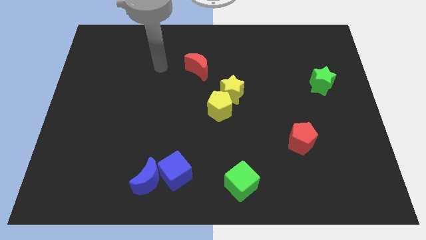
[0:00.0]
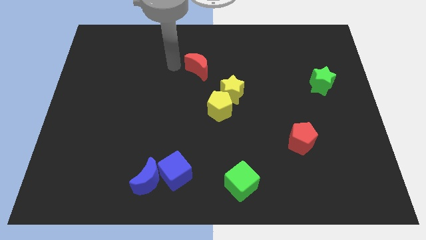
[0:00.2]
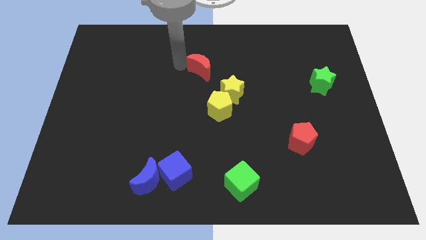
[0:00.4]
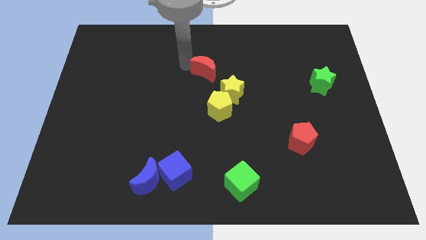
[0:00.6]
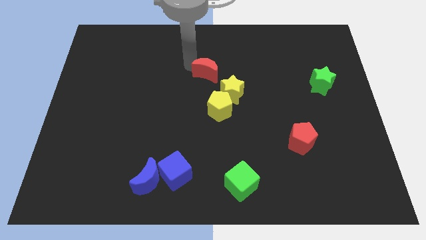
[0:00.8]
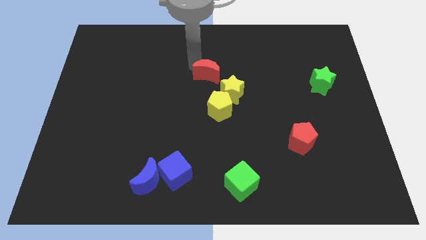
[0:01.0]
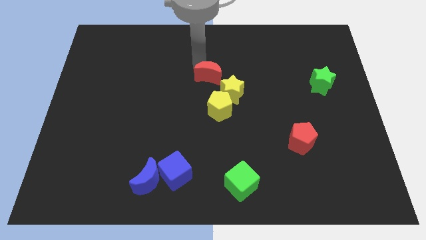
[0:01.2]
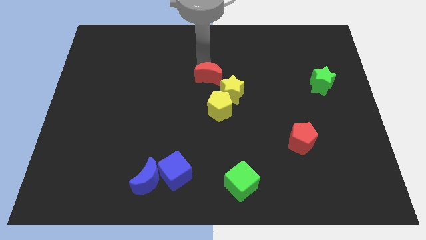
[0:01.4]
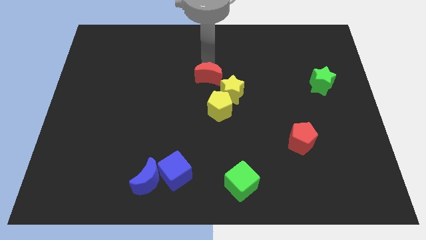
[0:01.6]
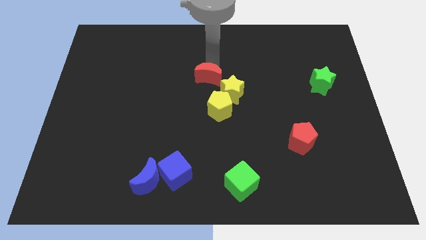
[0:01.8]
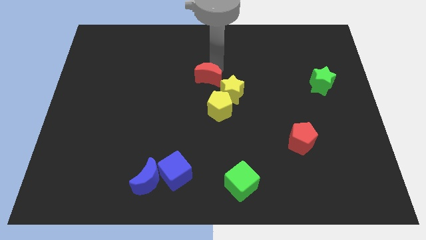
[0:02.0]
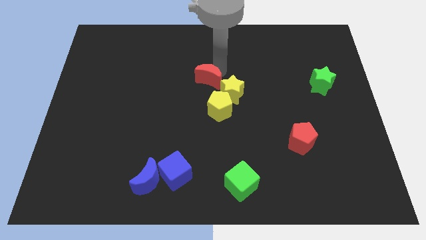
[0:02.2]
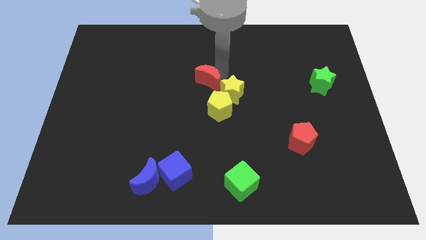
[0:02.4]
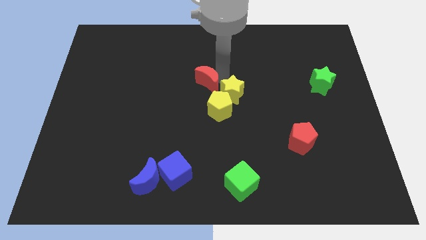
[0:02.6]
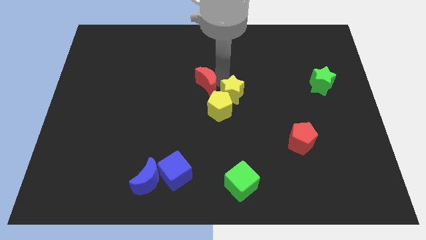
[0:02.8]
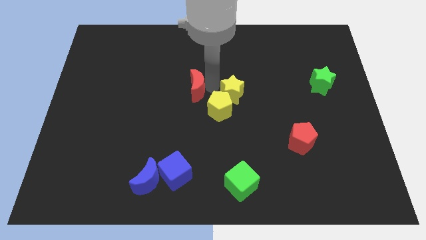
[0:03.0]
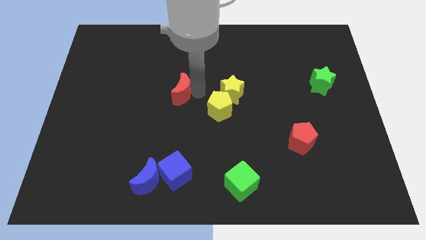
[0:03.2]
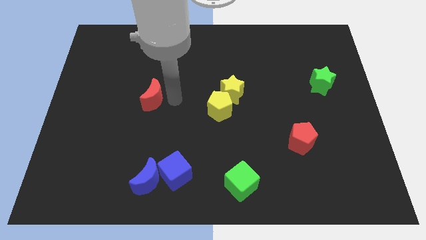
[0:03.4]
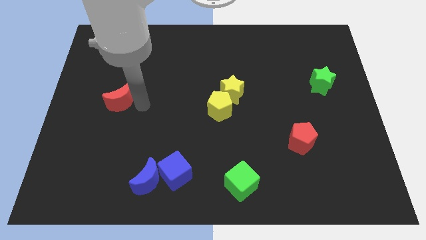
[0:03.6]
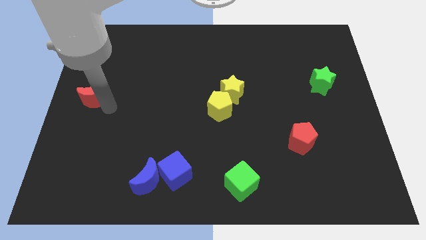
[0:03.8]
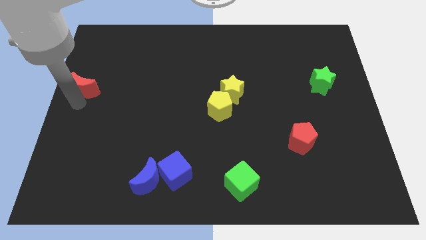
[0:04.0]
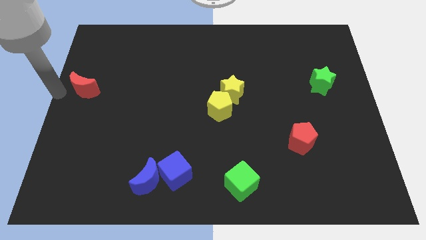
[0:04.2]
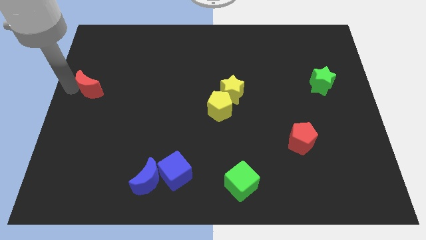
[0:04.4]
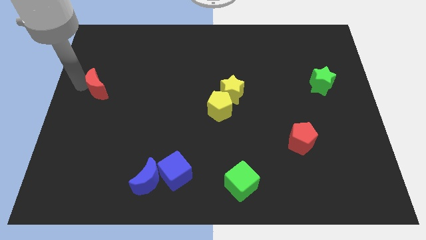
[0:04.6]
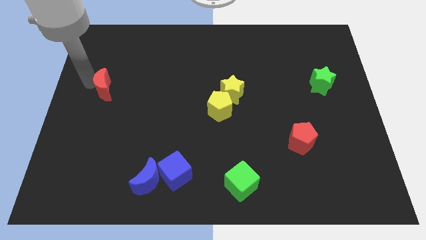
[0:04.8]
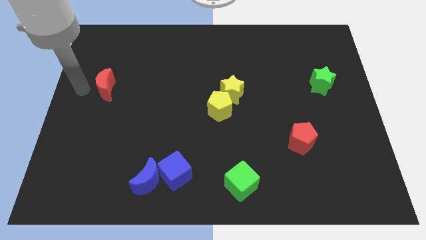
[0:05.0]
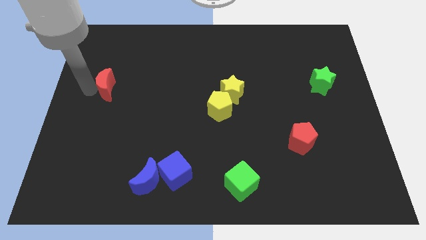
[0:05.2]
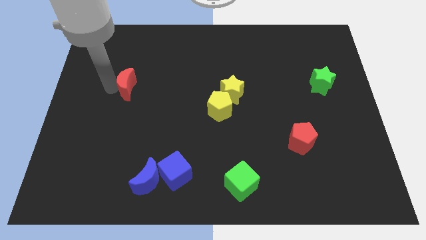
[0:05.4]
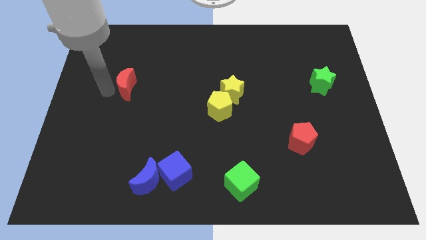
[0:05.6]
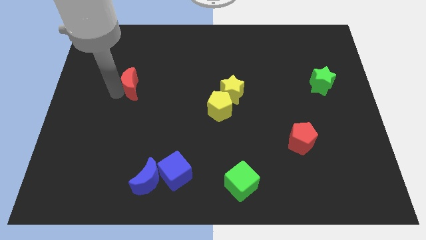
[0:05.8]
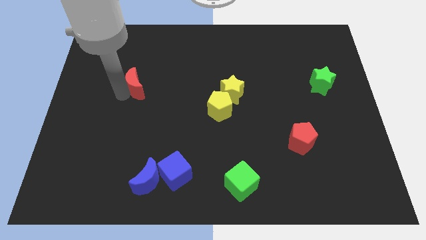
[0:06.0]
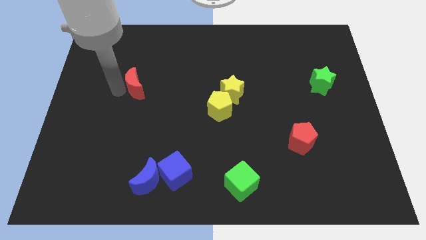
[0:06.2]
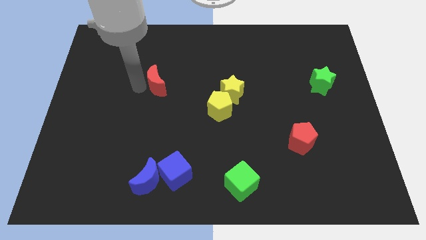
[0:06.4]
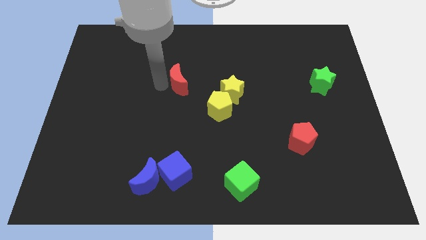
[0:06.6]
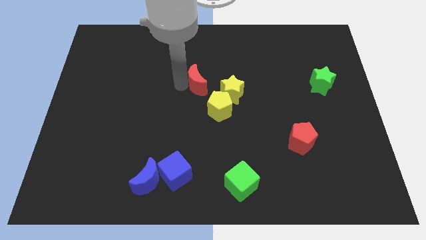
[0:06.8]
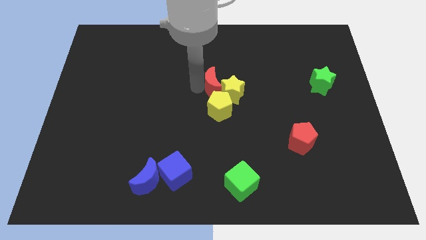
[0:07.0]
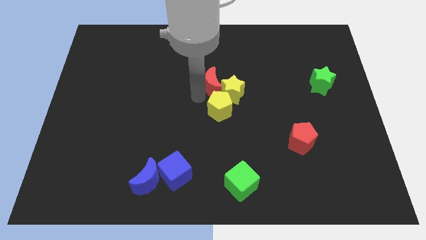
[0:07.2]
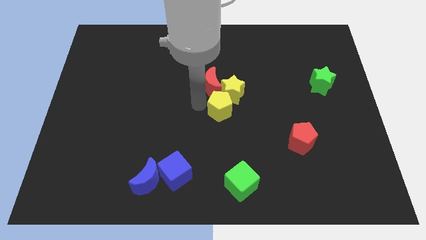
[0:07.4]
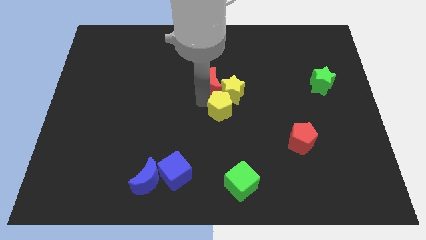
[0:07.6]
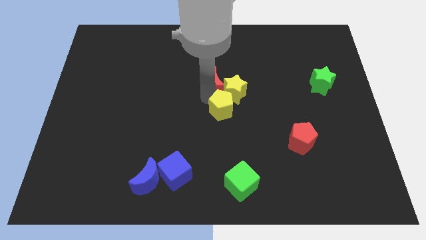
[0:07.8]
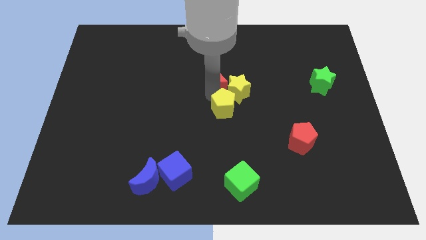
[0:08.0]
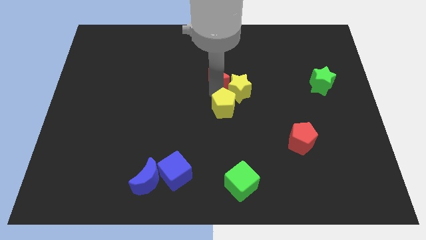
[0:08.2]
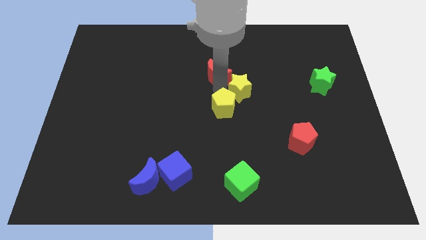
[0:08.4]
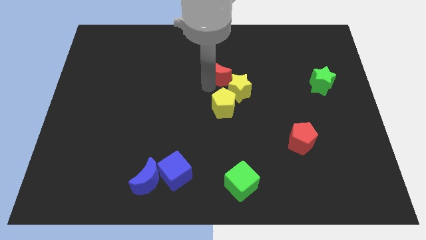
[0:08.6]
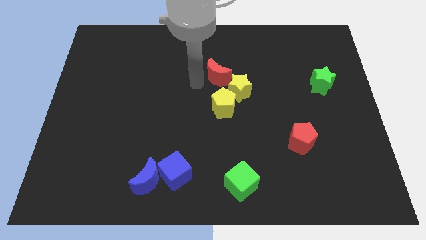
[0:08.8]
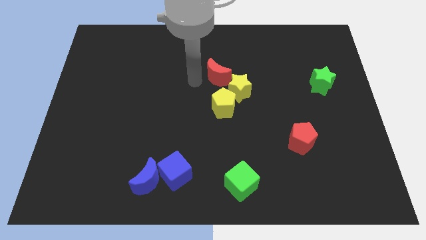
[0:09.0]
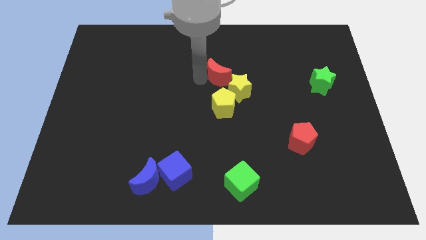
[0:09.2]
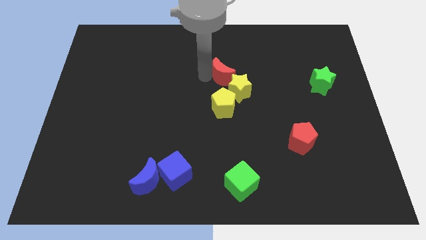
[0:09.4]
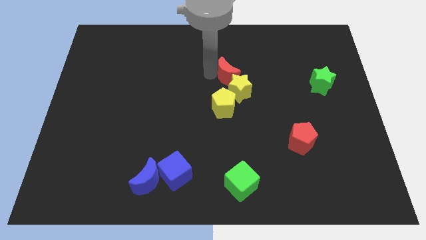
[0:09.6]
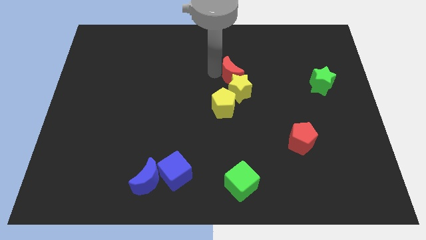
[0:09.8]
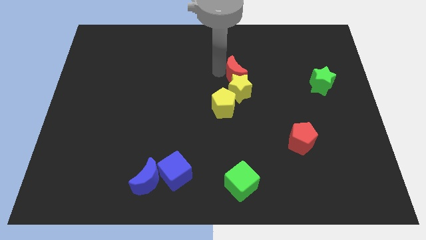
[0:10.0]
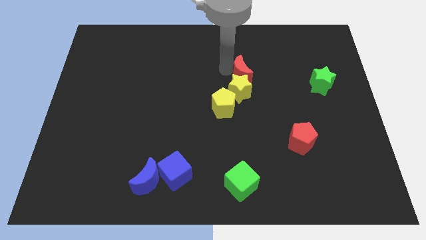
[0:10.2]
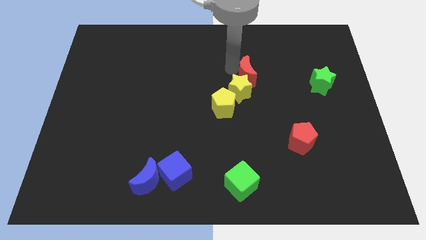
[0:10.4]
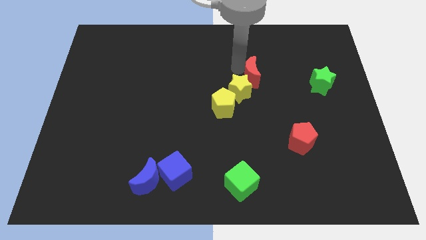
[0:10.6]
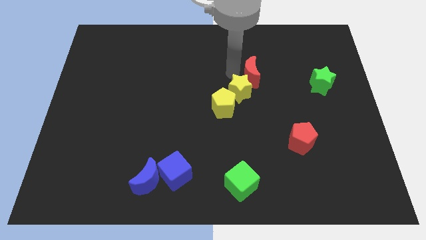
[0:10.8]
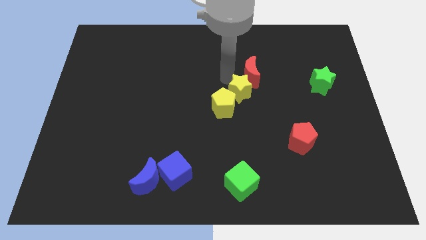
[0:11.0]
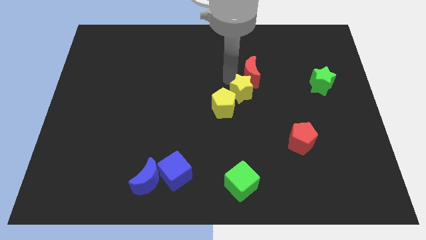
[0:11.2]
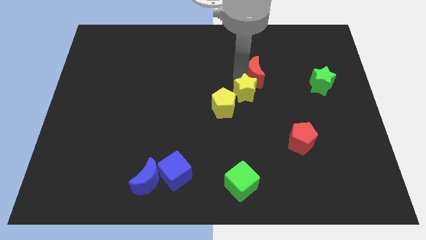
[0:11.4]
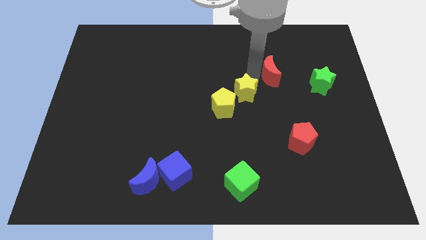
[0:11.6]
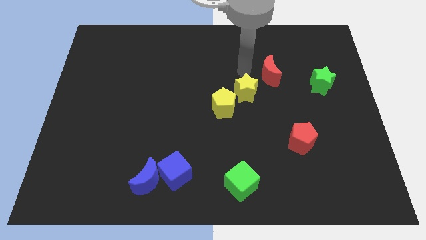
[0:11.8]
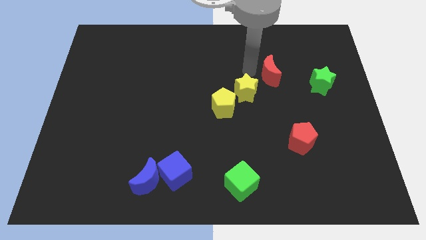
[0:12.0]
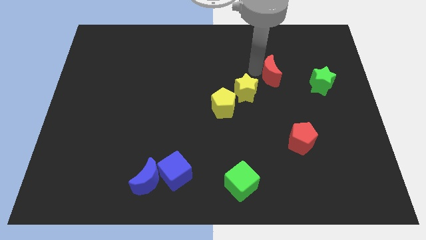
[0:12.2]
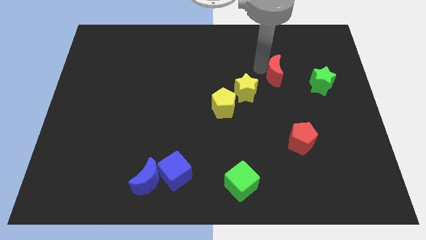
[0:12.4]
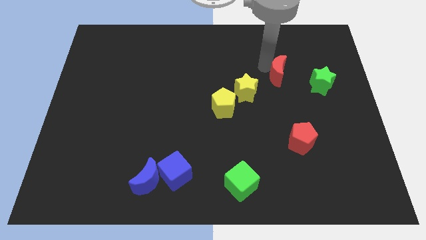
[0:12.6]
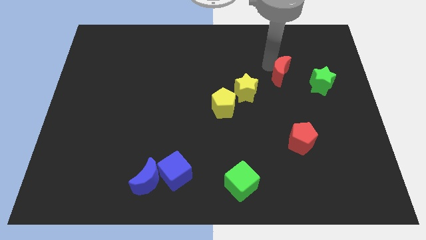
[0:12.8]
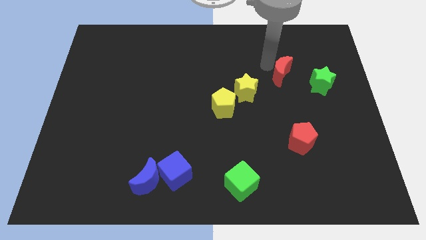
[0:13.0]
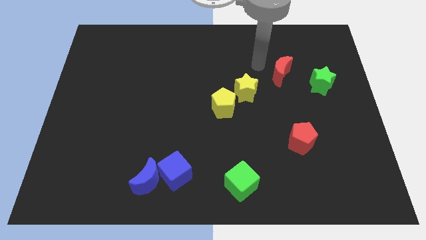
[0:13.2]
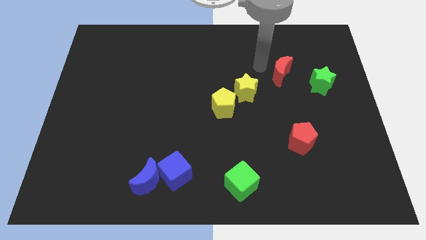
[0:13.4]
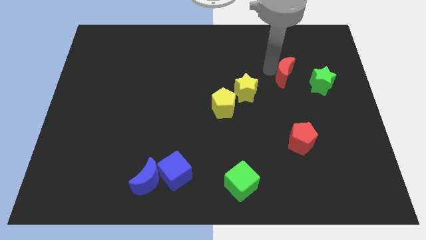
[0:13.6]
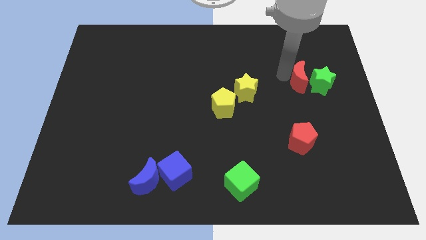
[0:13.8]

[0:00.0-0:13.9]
slide the red moon close to the green star

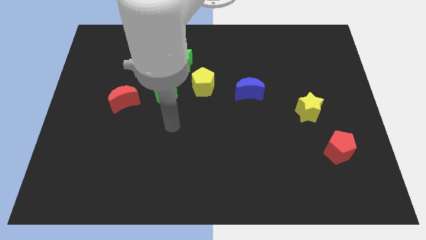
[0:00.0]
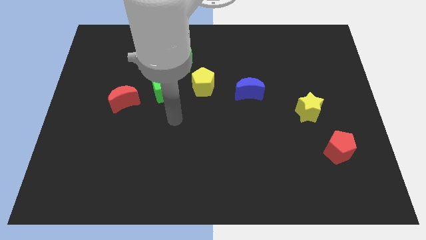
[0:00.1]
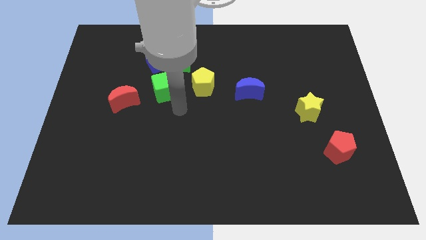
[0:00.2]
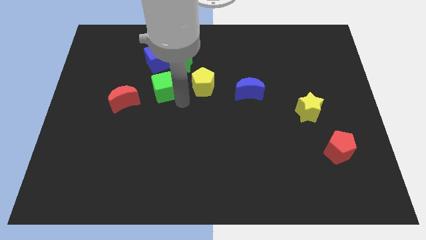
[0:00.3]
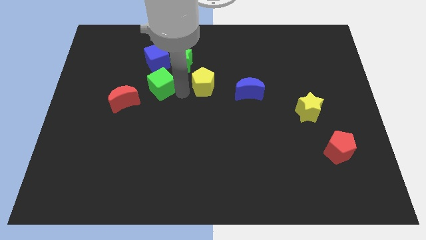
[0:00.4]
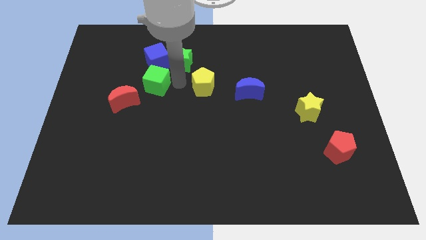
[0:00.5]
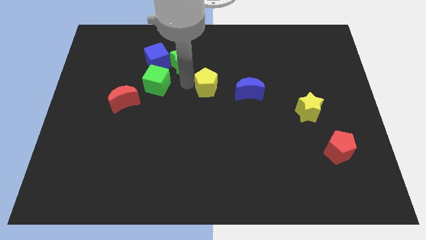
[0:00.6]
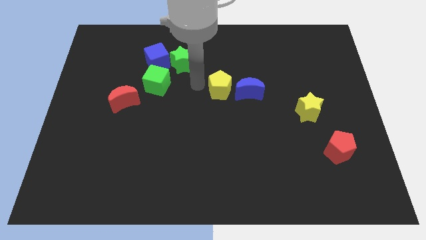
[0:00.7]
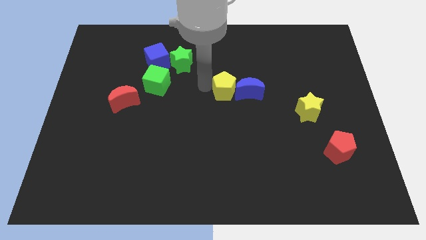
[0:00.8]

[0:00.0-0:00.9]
slide the yellow pentagon to the blue moon
